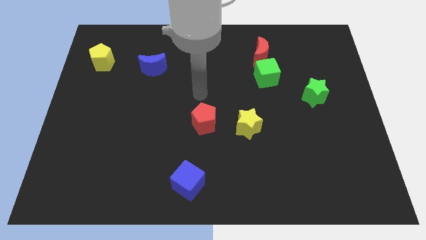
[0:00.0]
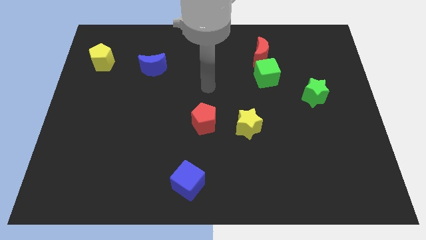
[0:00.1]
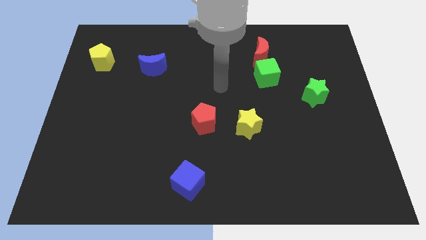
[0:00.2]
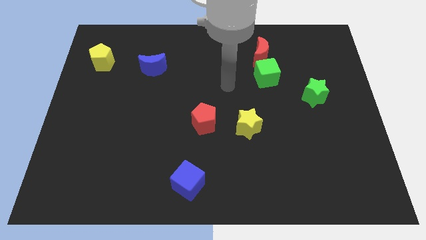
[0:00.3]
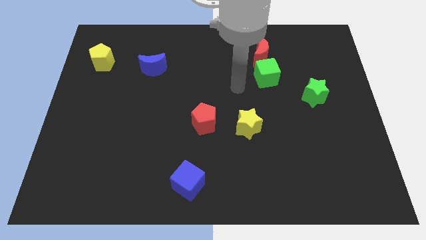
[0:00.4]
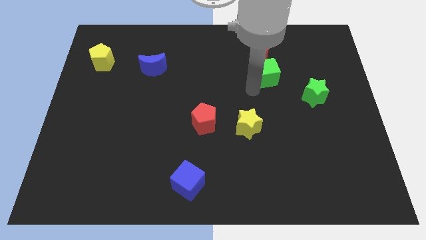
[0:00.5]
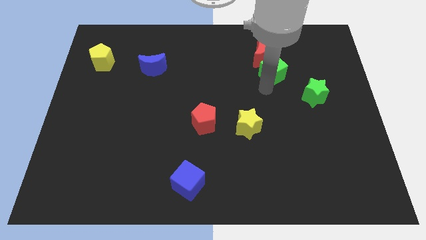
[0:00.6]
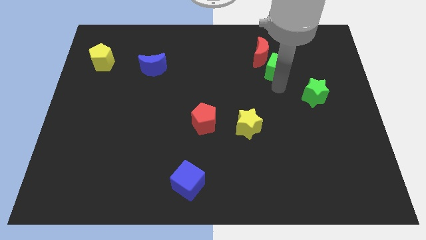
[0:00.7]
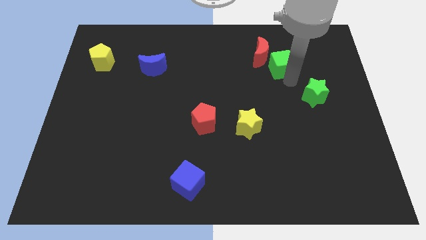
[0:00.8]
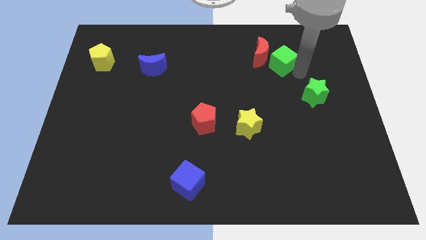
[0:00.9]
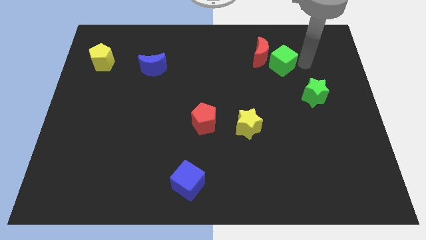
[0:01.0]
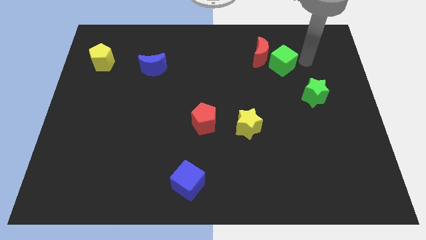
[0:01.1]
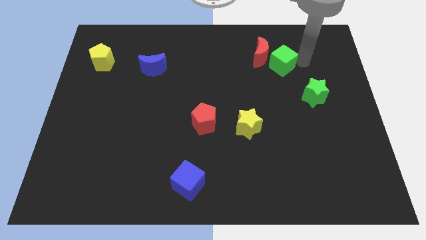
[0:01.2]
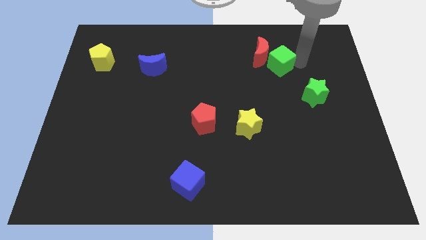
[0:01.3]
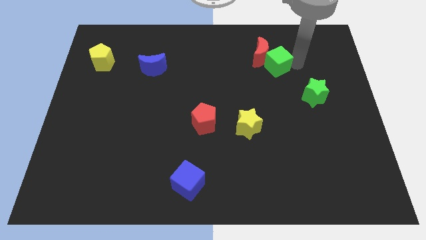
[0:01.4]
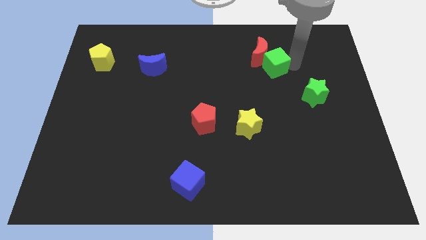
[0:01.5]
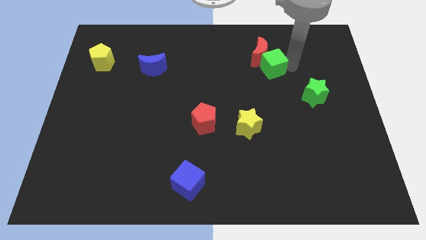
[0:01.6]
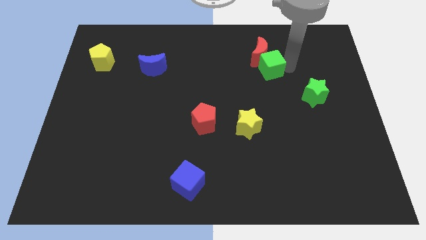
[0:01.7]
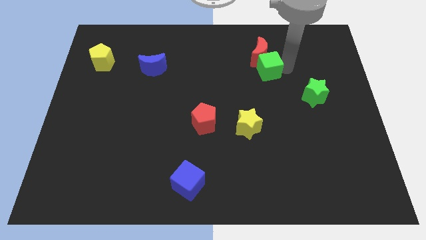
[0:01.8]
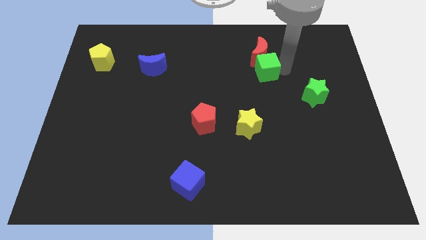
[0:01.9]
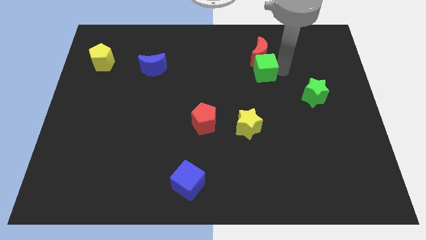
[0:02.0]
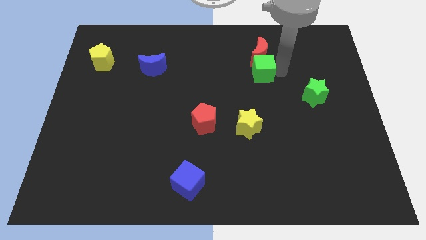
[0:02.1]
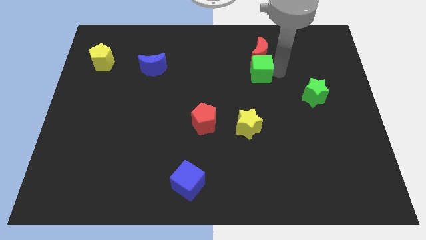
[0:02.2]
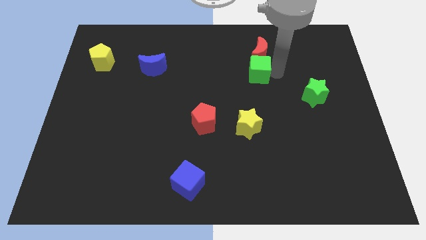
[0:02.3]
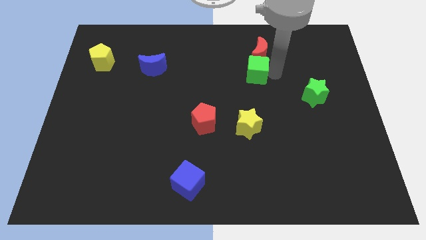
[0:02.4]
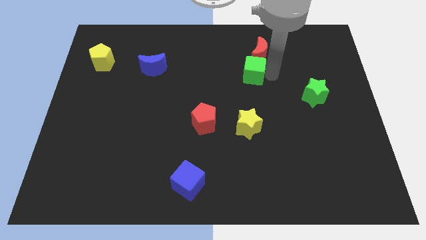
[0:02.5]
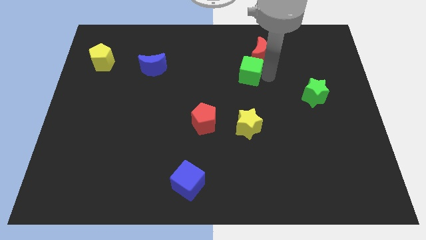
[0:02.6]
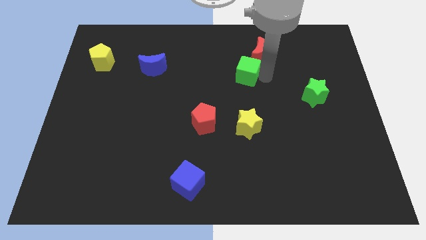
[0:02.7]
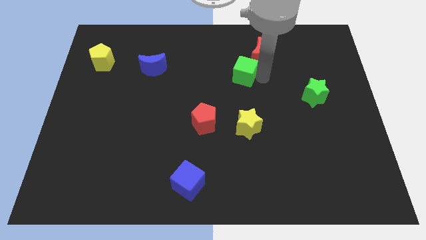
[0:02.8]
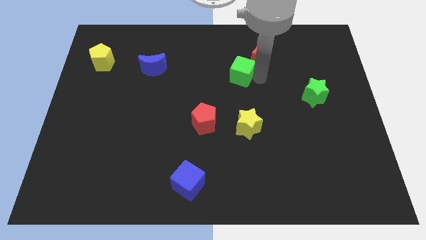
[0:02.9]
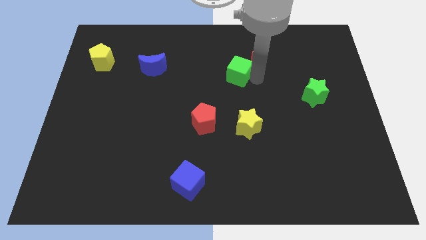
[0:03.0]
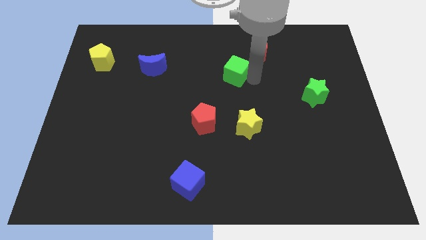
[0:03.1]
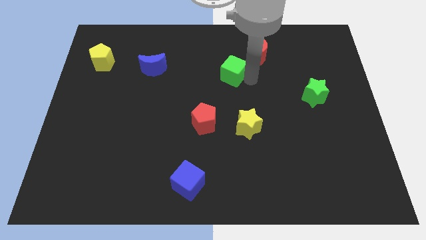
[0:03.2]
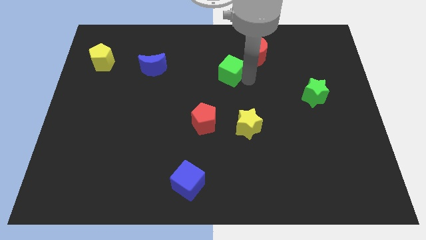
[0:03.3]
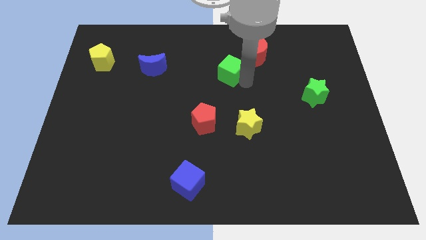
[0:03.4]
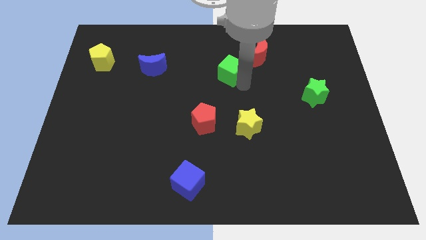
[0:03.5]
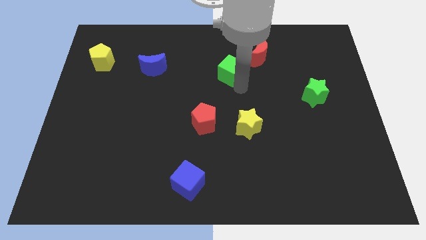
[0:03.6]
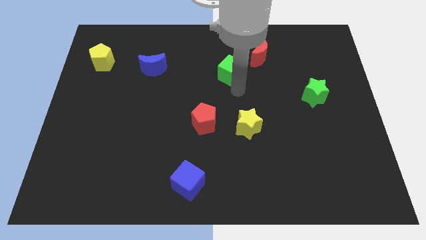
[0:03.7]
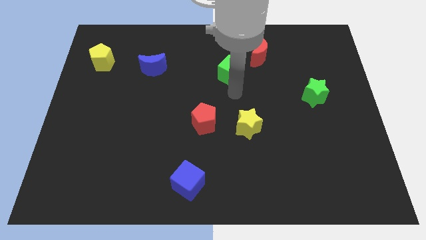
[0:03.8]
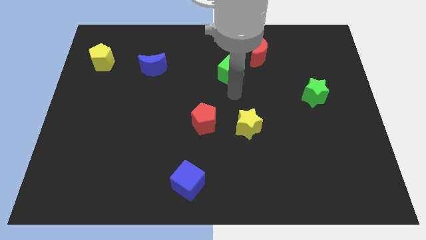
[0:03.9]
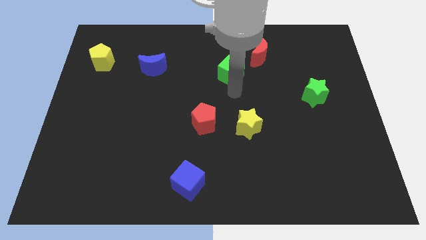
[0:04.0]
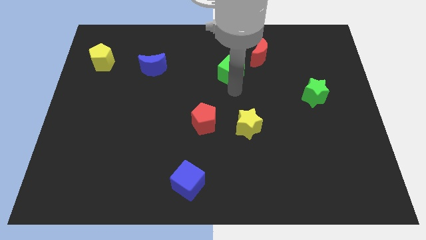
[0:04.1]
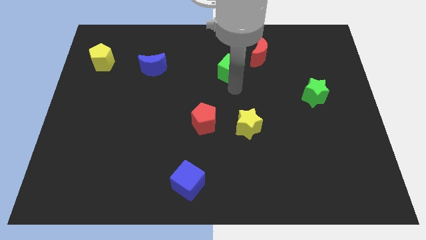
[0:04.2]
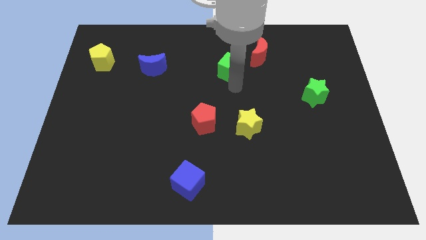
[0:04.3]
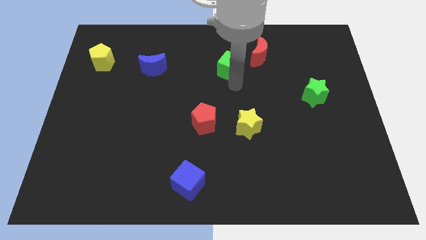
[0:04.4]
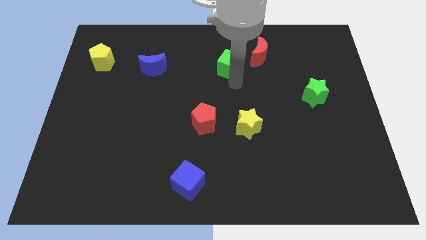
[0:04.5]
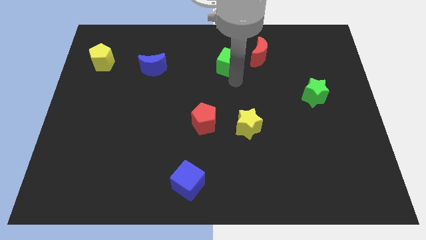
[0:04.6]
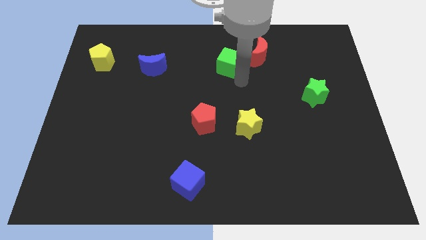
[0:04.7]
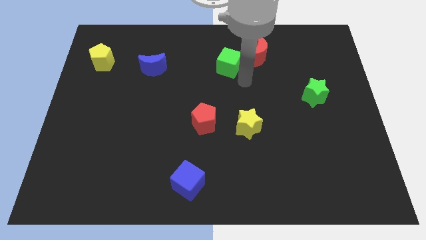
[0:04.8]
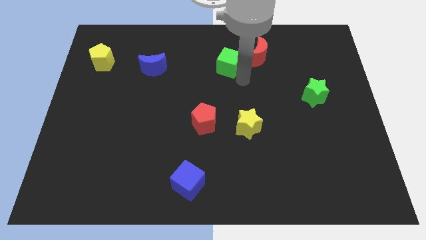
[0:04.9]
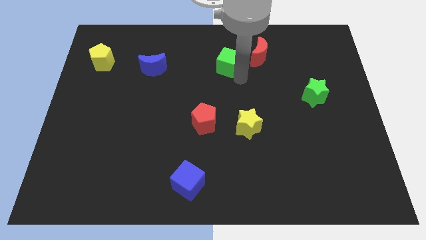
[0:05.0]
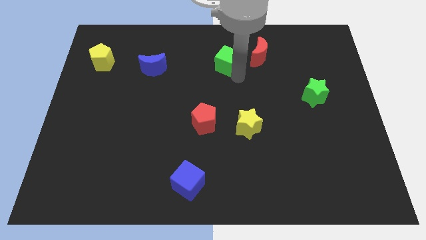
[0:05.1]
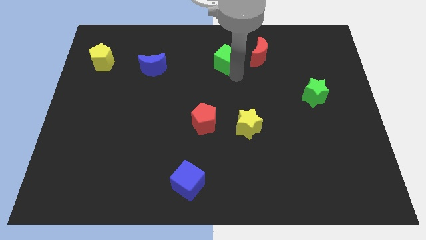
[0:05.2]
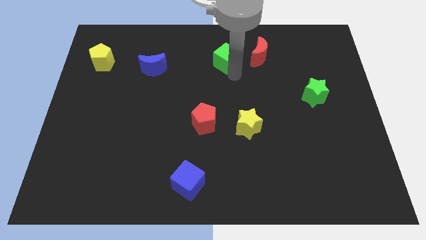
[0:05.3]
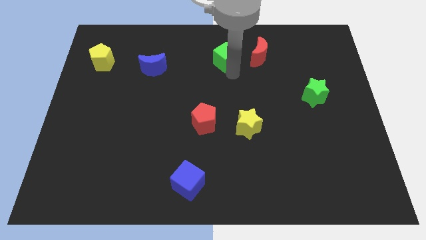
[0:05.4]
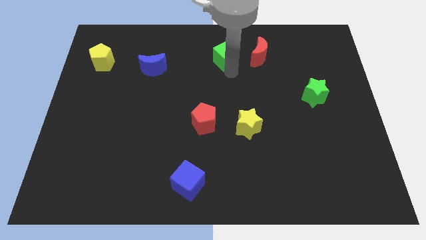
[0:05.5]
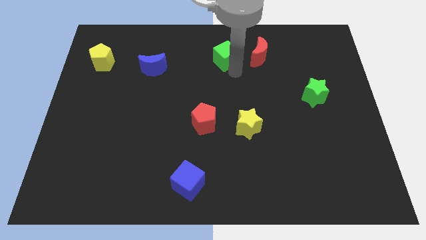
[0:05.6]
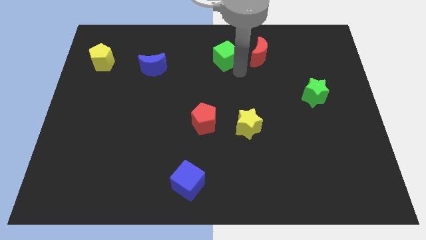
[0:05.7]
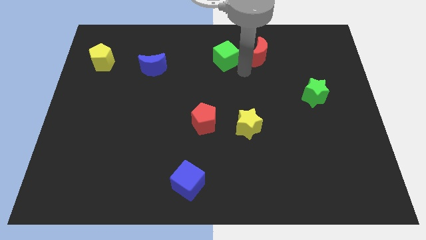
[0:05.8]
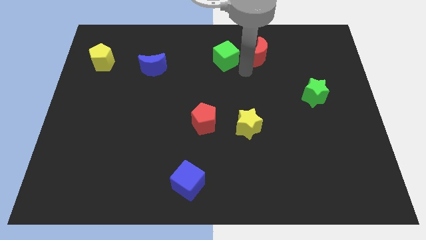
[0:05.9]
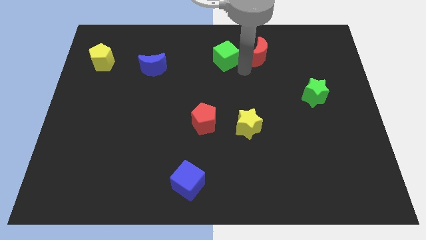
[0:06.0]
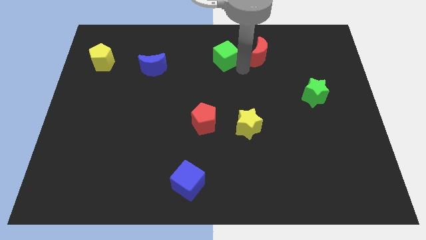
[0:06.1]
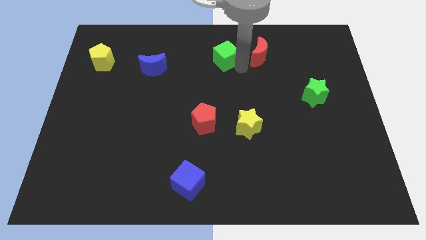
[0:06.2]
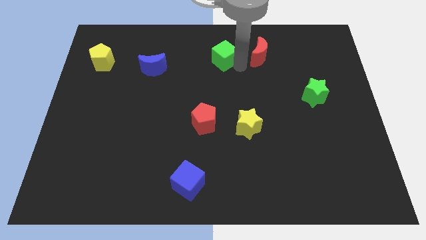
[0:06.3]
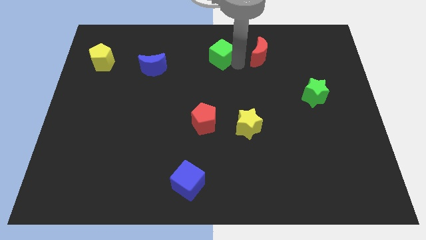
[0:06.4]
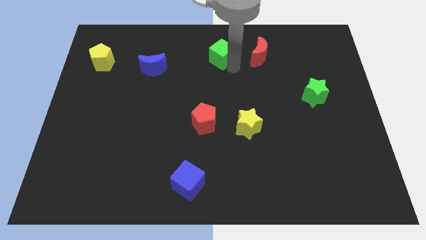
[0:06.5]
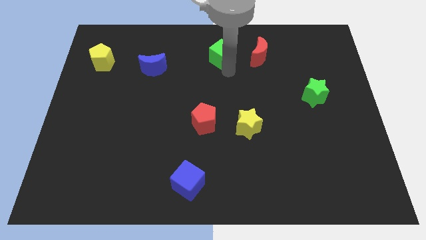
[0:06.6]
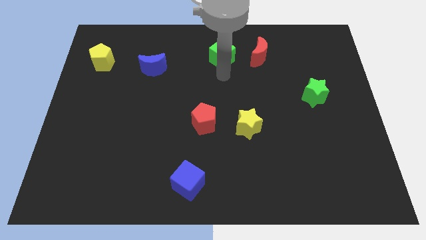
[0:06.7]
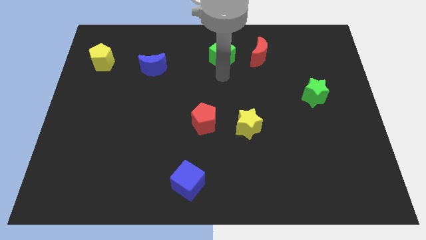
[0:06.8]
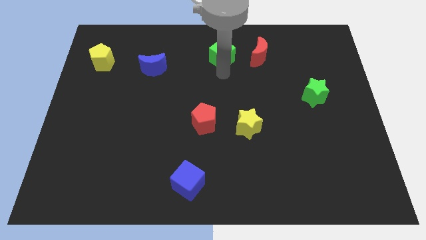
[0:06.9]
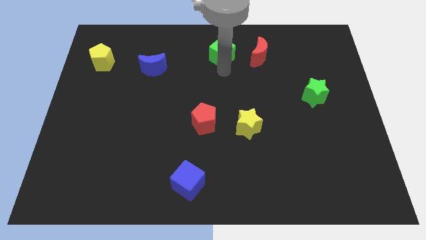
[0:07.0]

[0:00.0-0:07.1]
move the green cube to the top side
